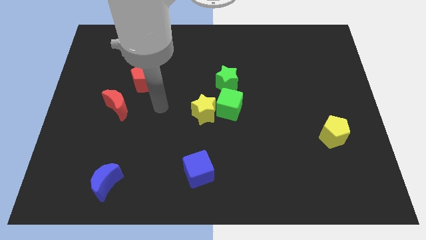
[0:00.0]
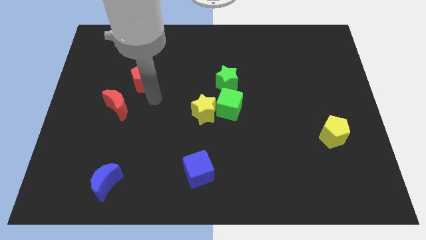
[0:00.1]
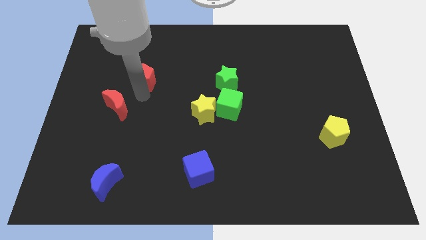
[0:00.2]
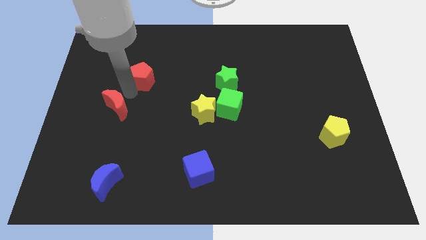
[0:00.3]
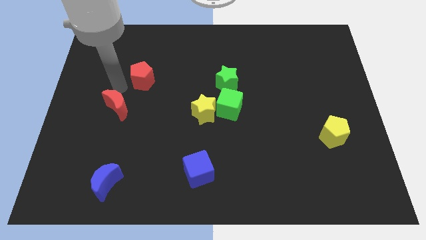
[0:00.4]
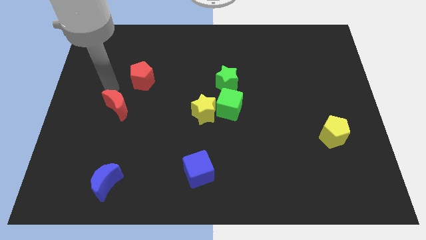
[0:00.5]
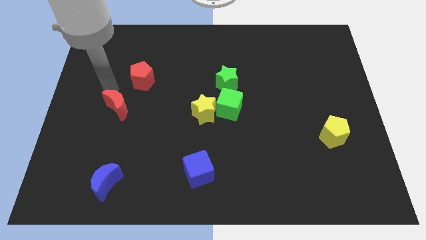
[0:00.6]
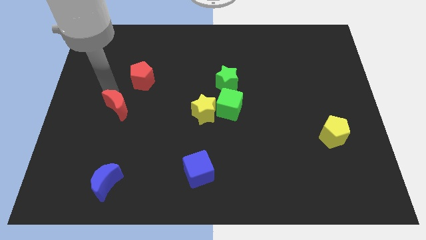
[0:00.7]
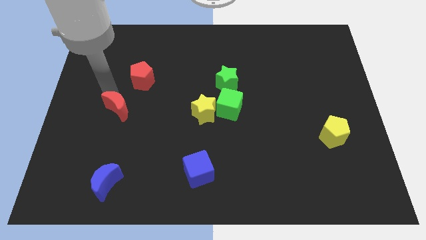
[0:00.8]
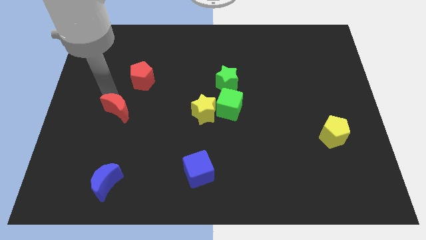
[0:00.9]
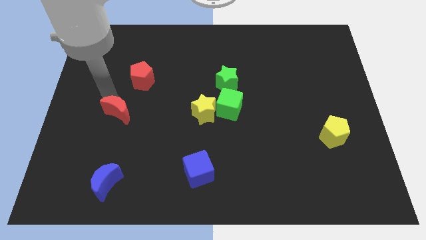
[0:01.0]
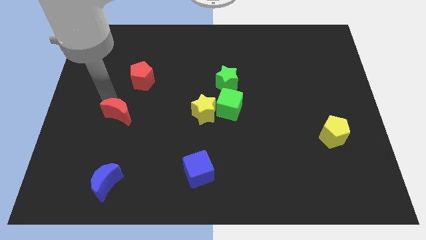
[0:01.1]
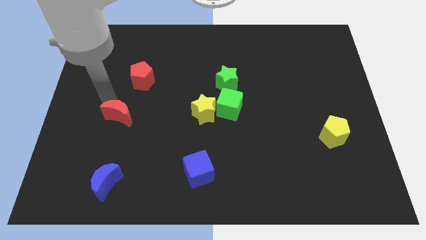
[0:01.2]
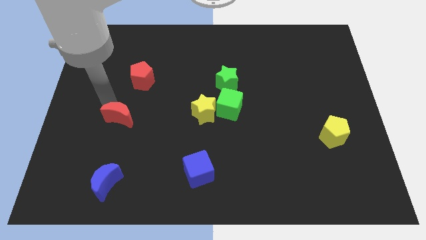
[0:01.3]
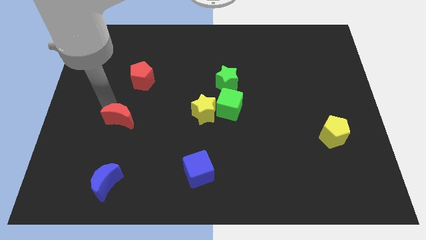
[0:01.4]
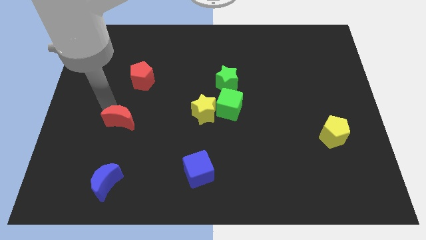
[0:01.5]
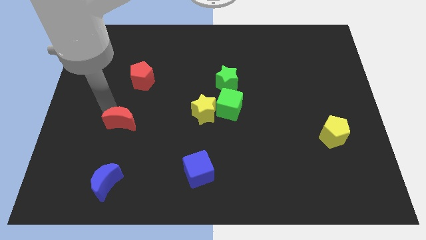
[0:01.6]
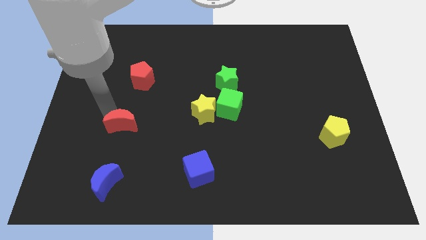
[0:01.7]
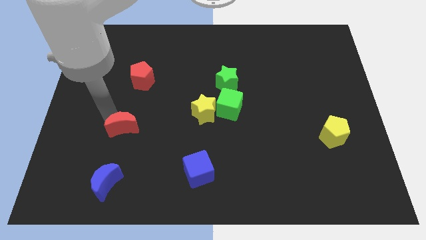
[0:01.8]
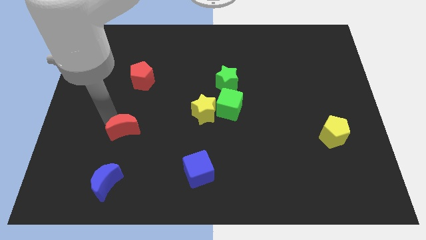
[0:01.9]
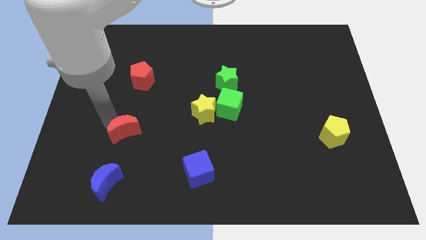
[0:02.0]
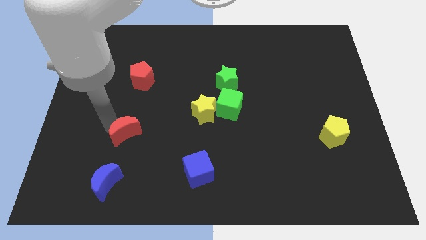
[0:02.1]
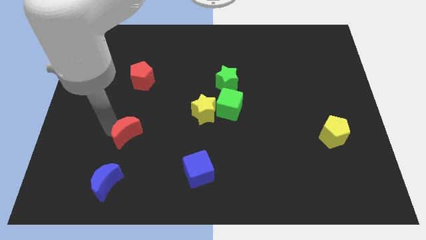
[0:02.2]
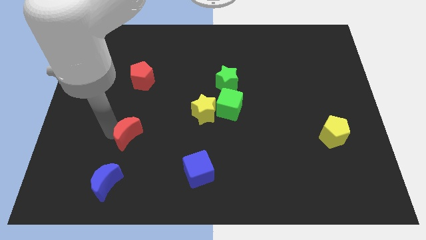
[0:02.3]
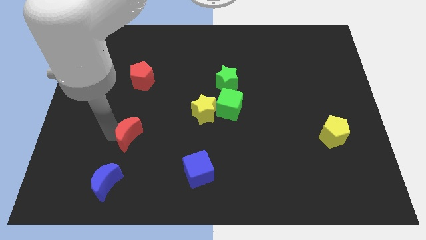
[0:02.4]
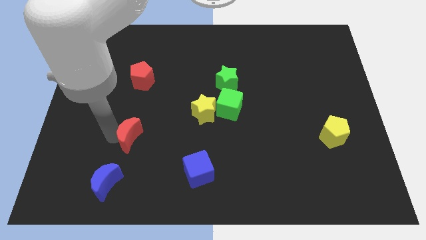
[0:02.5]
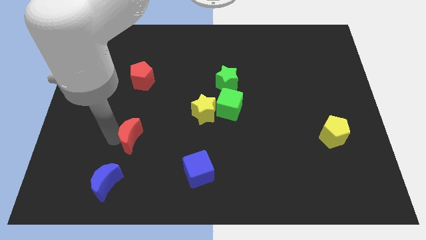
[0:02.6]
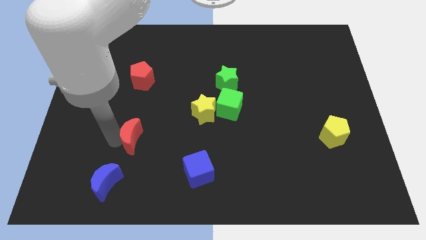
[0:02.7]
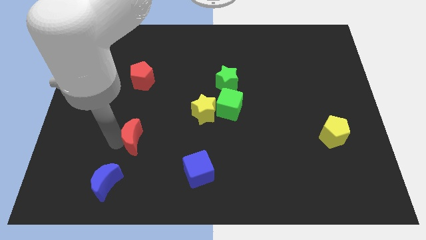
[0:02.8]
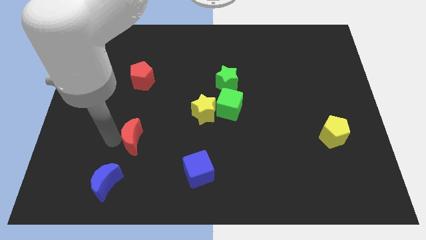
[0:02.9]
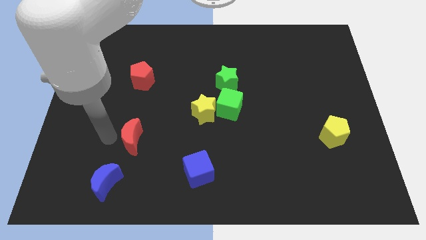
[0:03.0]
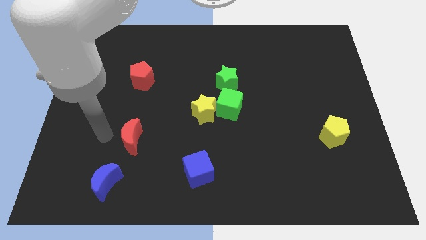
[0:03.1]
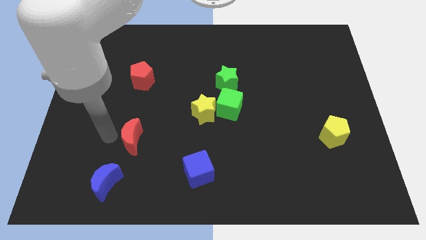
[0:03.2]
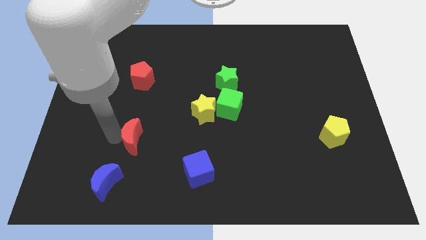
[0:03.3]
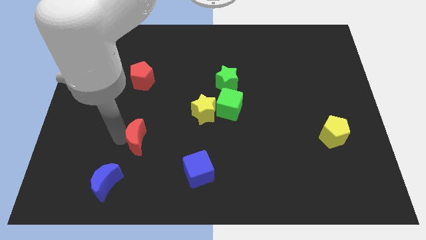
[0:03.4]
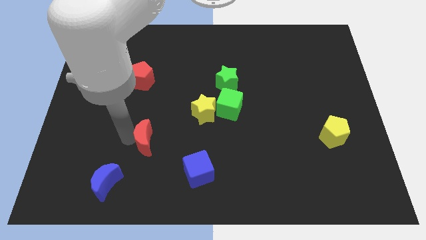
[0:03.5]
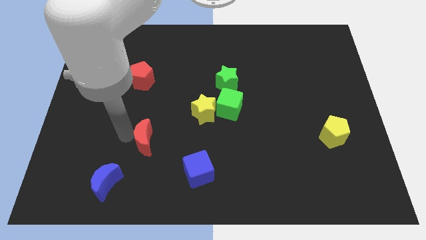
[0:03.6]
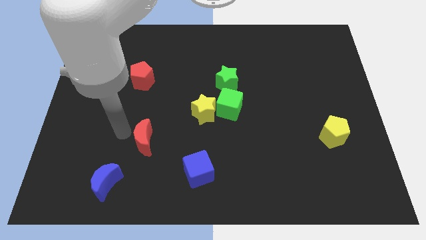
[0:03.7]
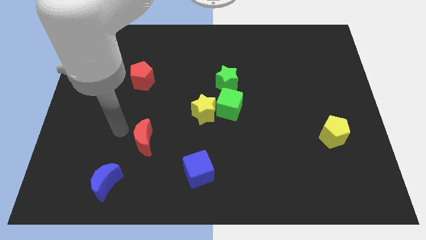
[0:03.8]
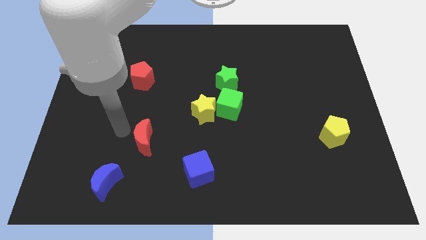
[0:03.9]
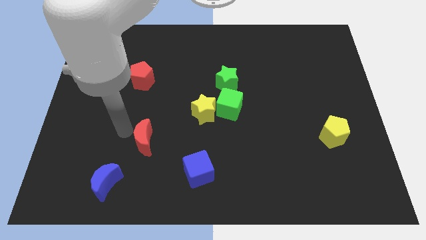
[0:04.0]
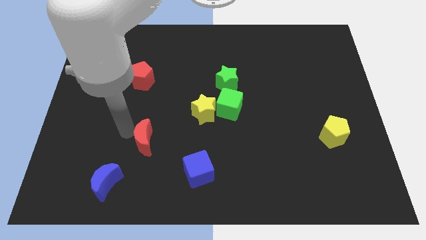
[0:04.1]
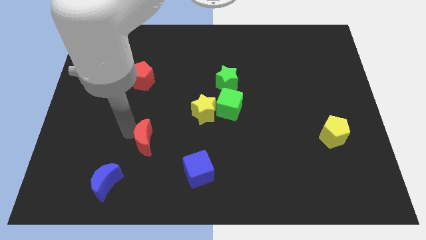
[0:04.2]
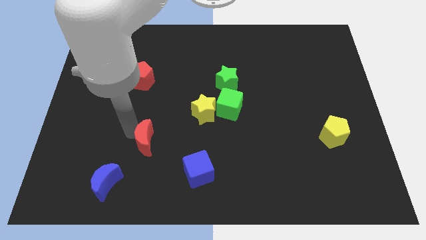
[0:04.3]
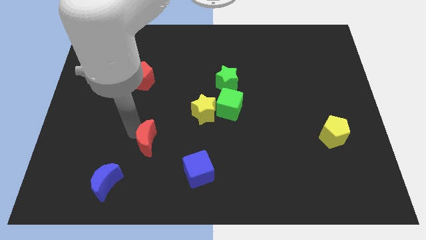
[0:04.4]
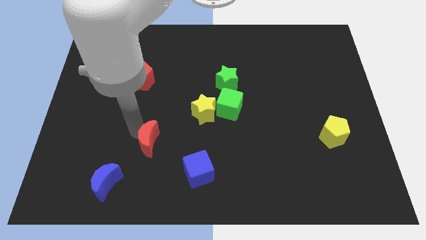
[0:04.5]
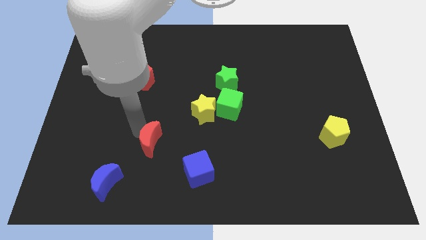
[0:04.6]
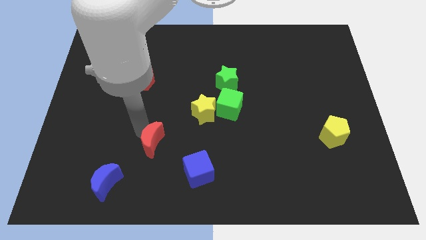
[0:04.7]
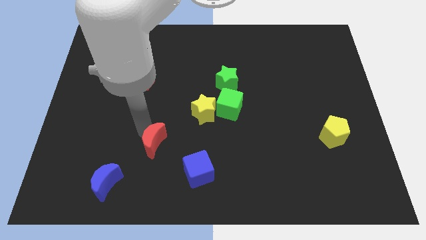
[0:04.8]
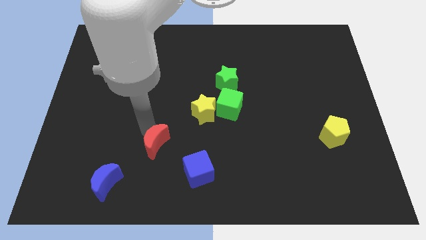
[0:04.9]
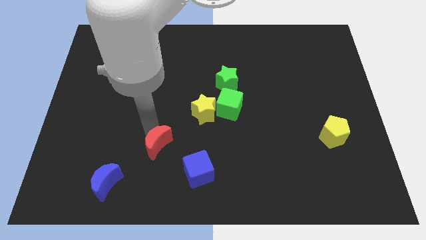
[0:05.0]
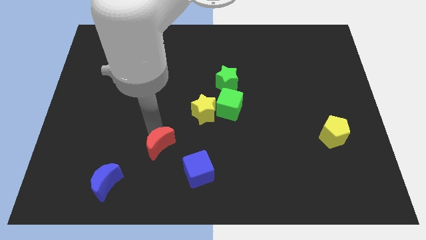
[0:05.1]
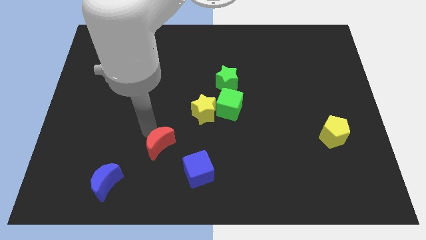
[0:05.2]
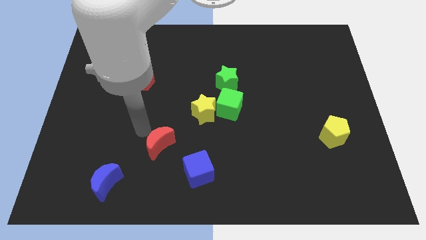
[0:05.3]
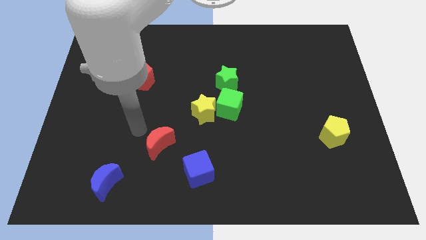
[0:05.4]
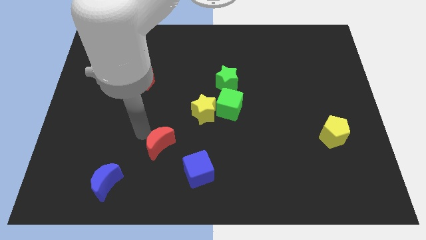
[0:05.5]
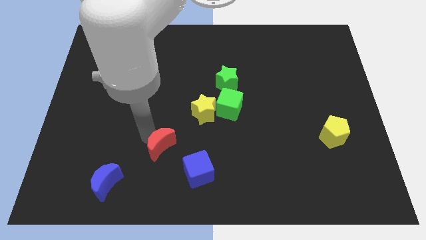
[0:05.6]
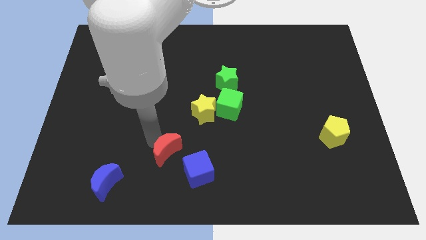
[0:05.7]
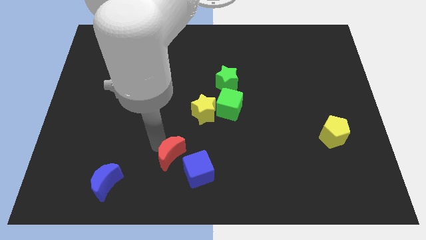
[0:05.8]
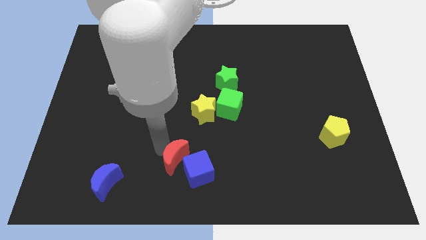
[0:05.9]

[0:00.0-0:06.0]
push the red moon towards the blue cube

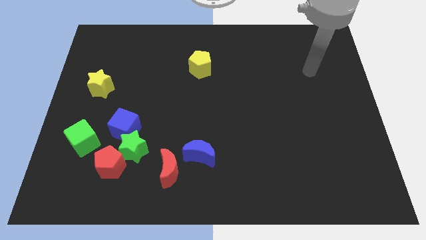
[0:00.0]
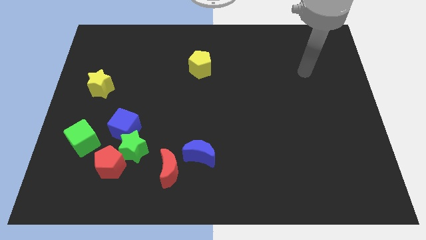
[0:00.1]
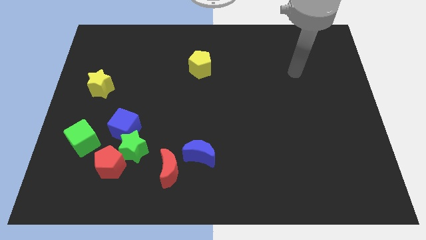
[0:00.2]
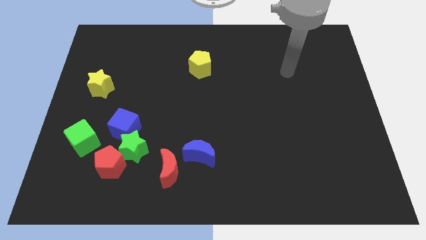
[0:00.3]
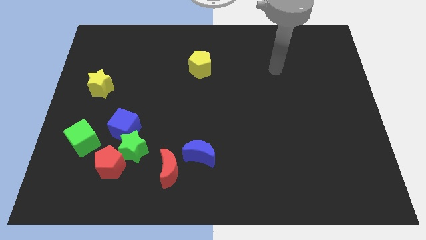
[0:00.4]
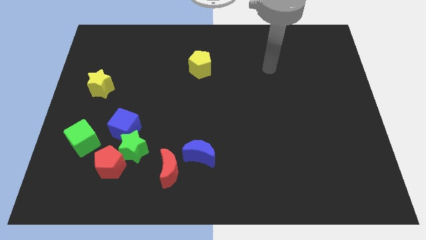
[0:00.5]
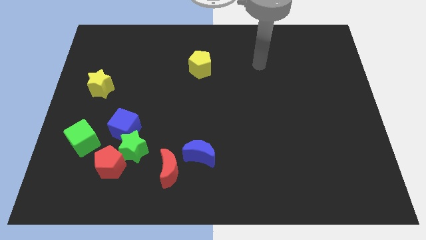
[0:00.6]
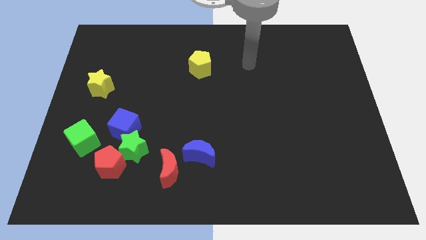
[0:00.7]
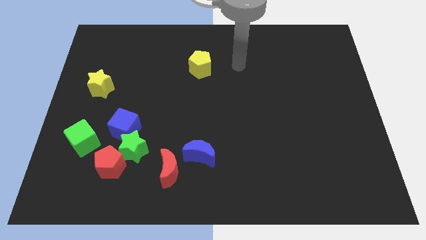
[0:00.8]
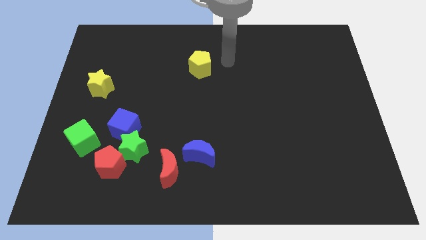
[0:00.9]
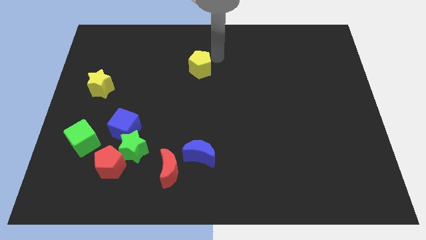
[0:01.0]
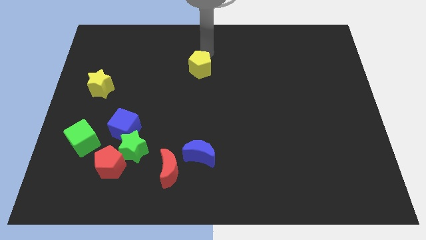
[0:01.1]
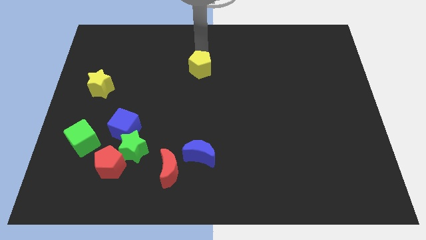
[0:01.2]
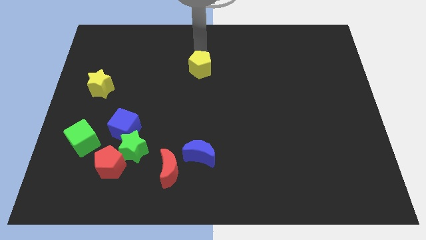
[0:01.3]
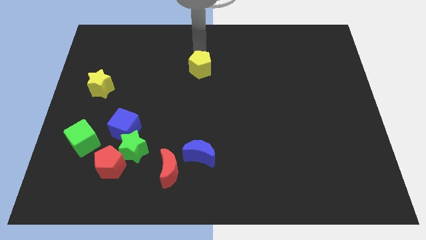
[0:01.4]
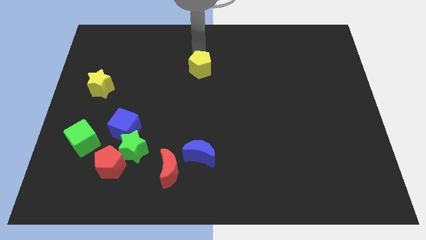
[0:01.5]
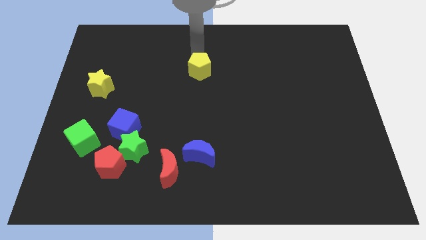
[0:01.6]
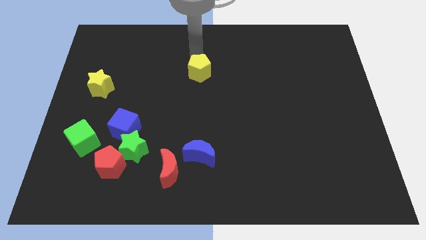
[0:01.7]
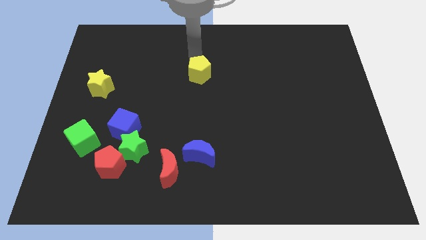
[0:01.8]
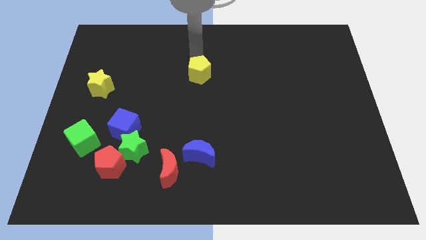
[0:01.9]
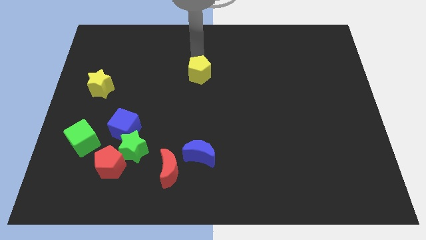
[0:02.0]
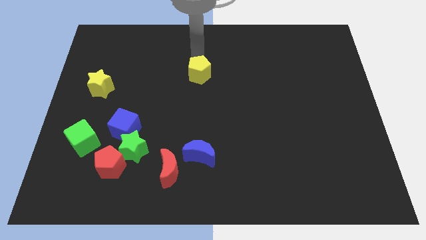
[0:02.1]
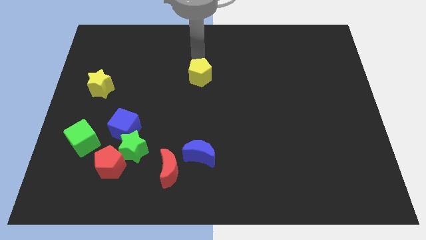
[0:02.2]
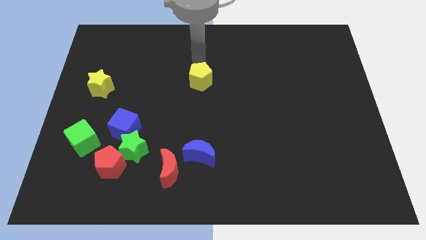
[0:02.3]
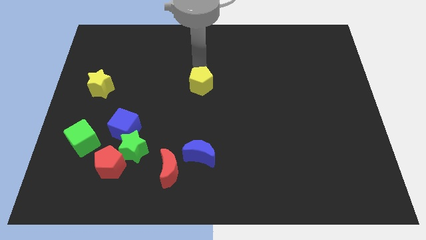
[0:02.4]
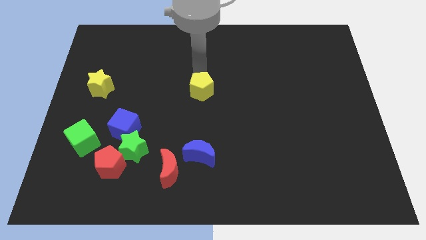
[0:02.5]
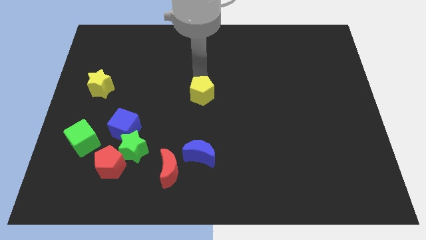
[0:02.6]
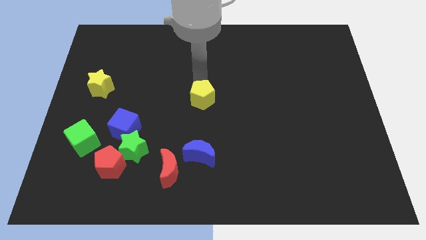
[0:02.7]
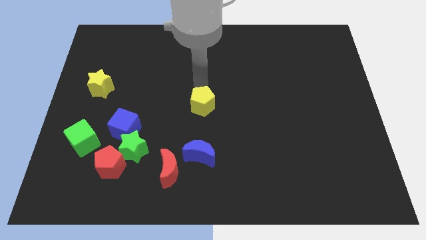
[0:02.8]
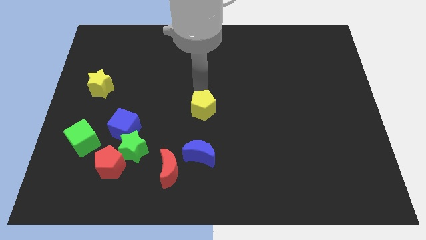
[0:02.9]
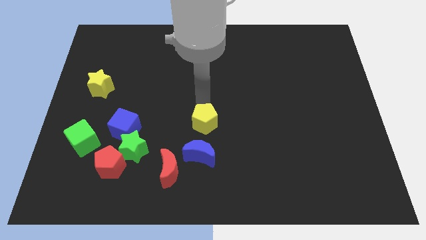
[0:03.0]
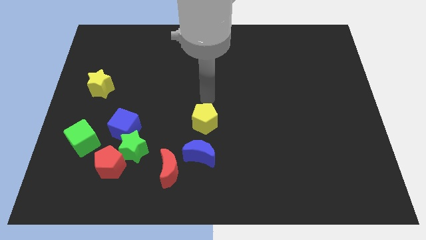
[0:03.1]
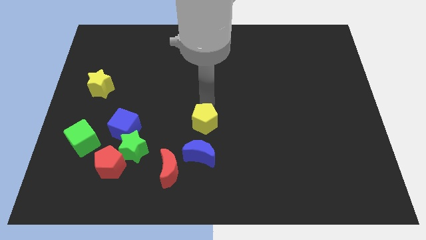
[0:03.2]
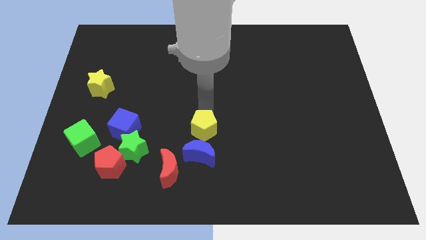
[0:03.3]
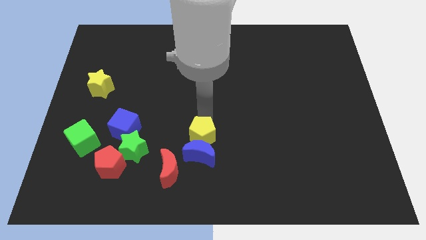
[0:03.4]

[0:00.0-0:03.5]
slide the yellow pentagon next to the blue moon
